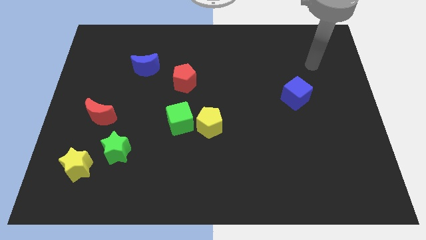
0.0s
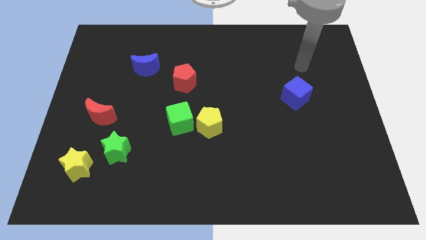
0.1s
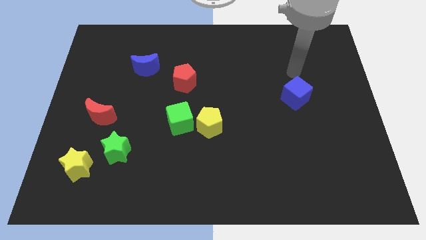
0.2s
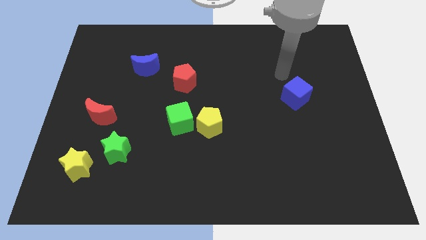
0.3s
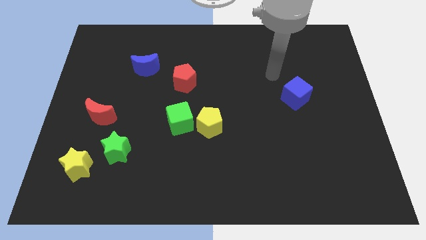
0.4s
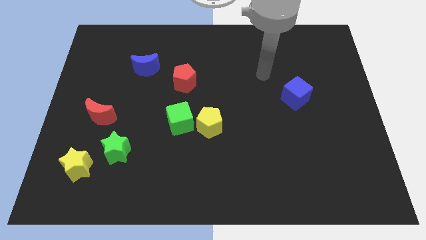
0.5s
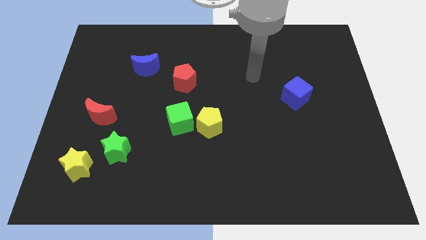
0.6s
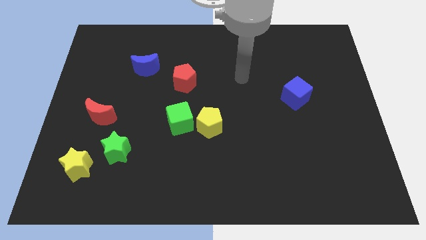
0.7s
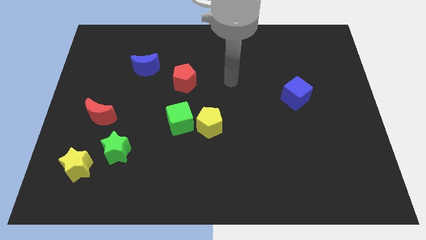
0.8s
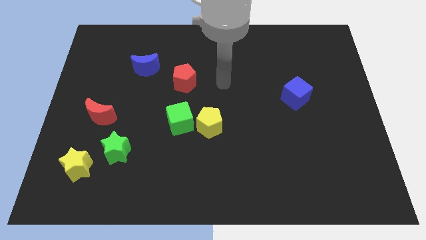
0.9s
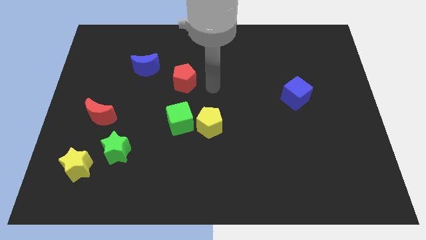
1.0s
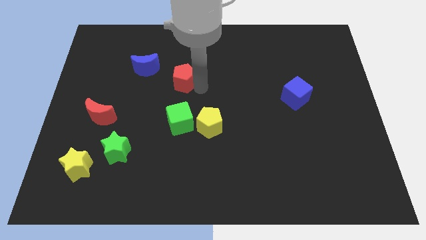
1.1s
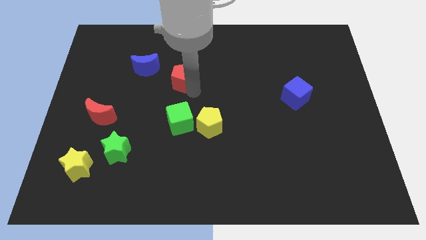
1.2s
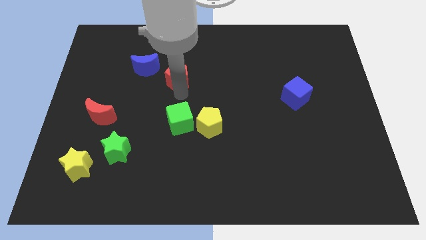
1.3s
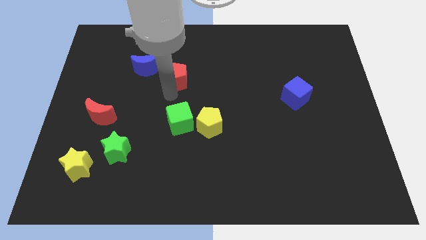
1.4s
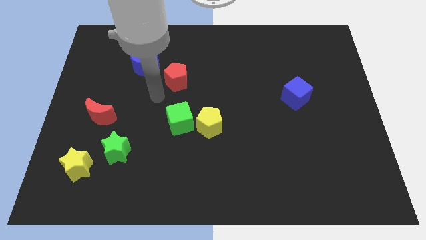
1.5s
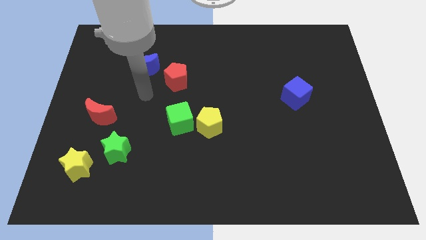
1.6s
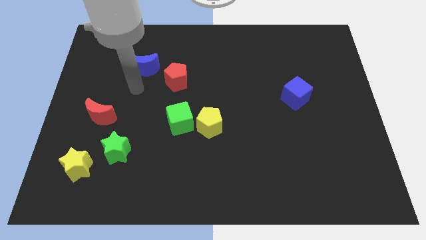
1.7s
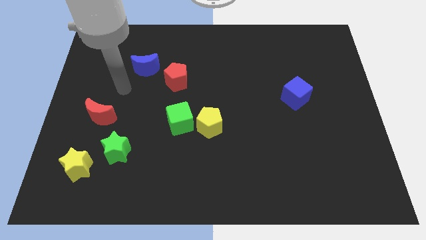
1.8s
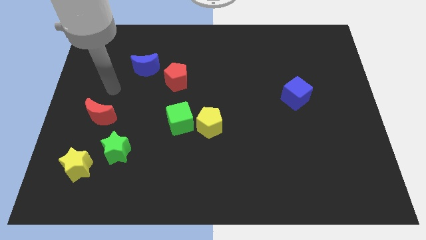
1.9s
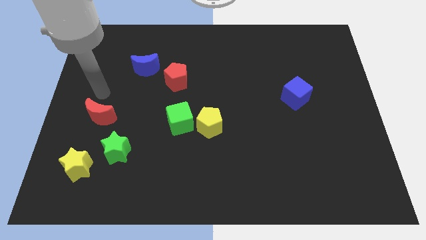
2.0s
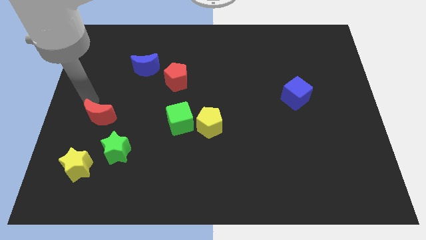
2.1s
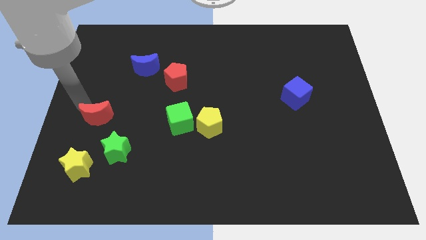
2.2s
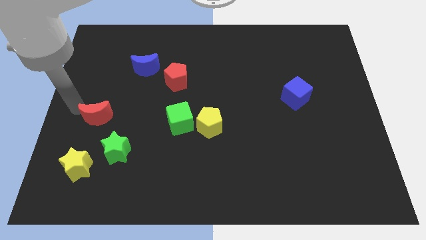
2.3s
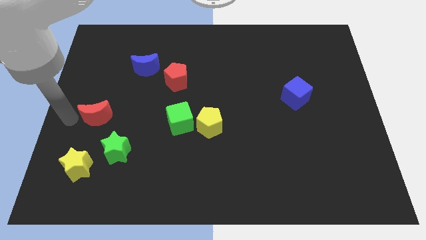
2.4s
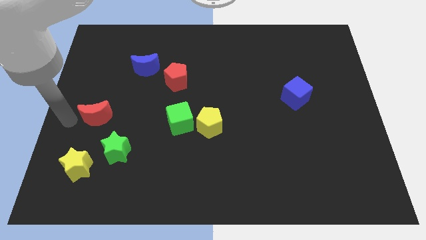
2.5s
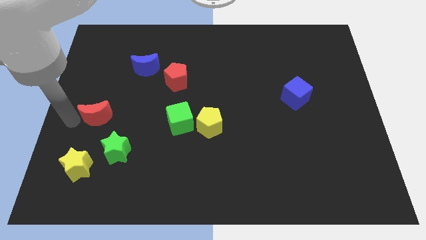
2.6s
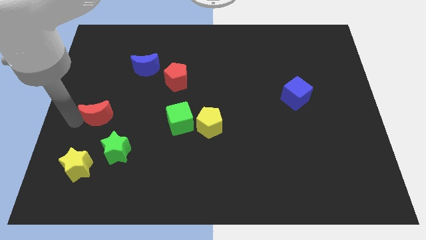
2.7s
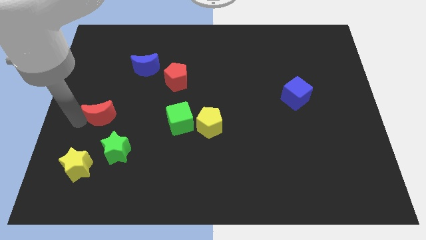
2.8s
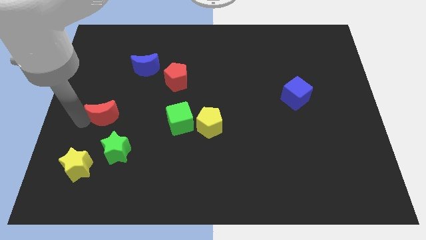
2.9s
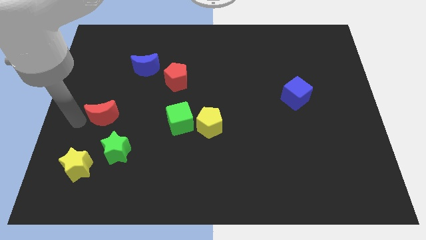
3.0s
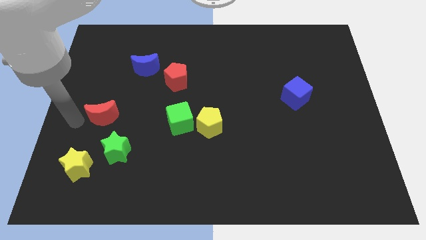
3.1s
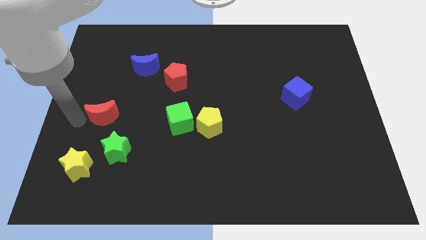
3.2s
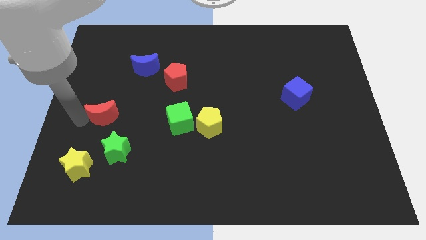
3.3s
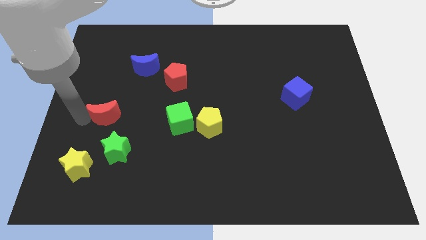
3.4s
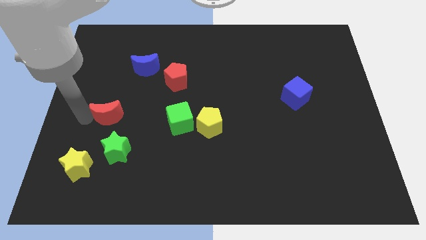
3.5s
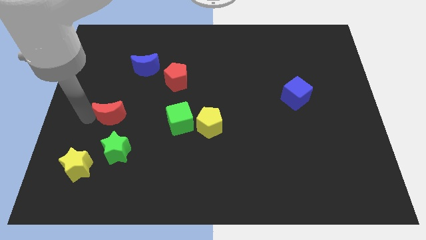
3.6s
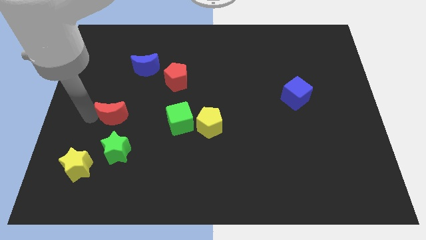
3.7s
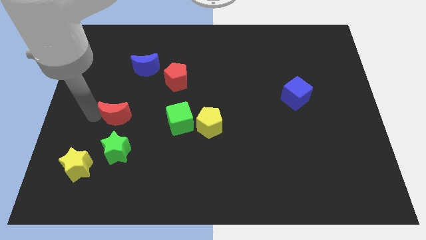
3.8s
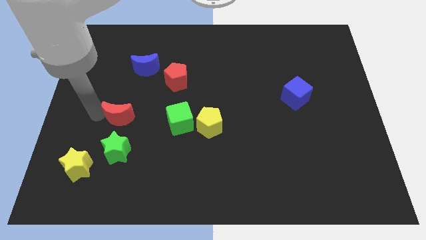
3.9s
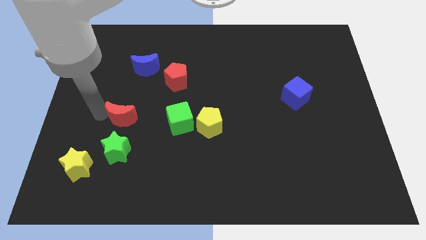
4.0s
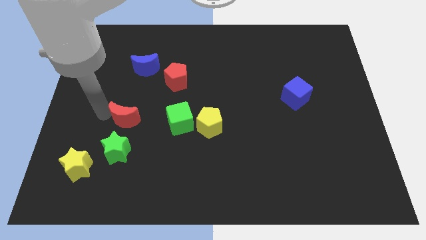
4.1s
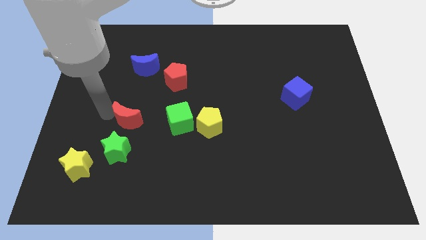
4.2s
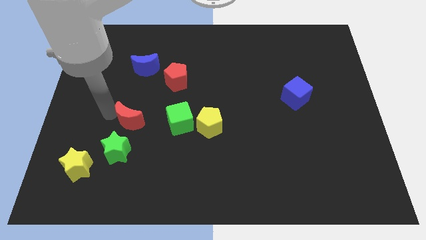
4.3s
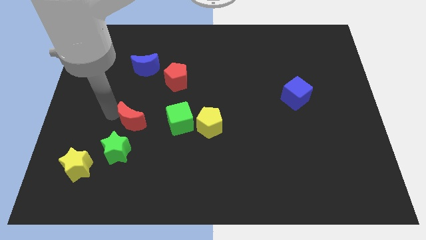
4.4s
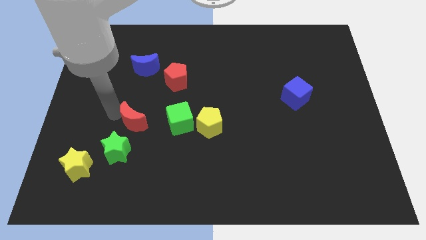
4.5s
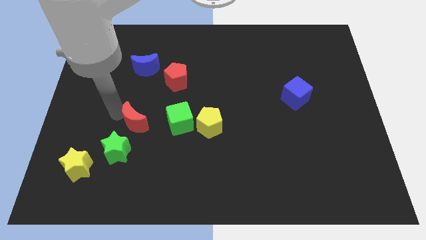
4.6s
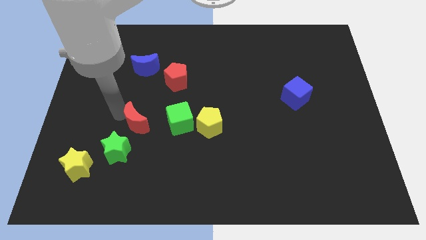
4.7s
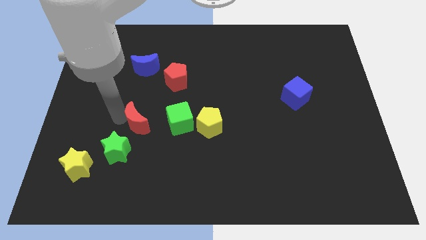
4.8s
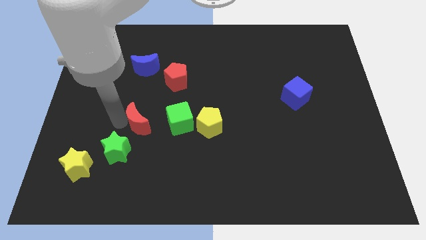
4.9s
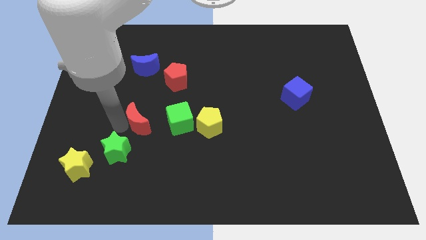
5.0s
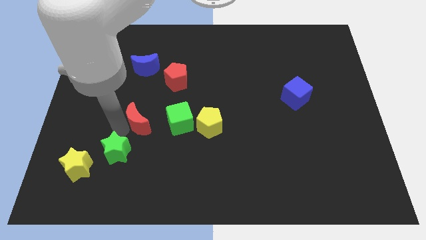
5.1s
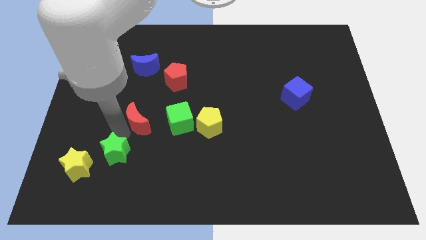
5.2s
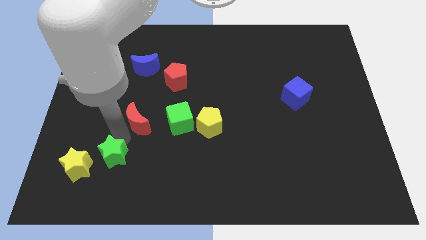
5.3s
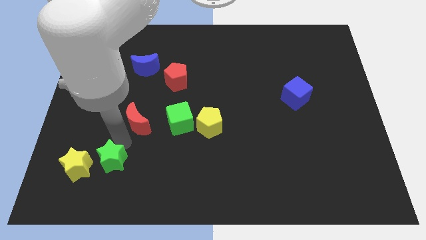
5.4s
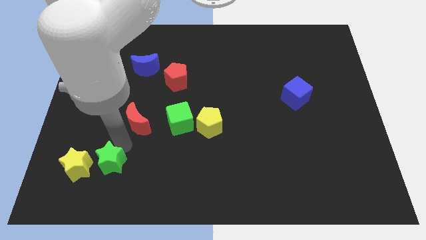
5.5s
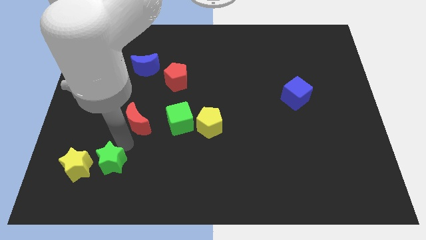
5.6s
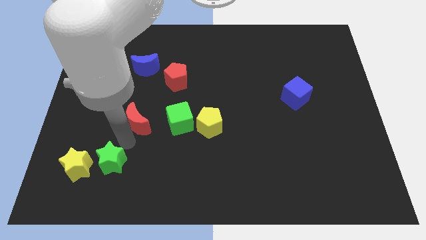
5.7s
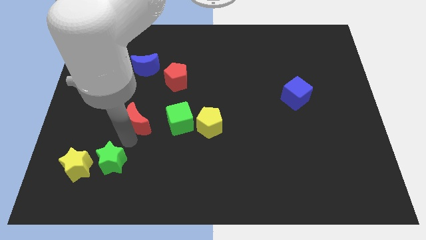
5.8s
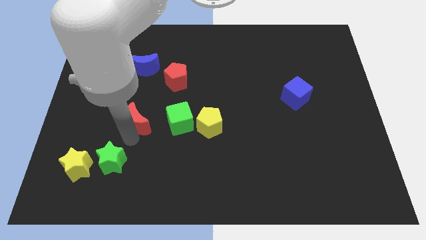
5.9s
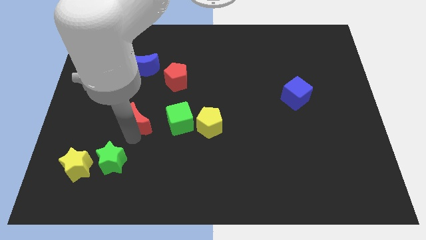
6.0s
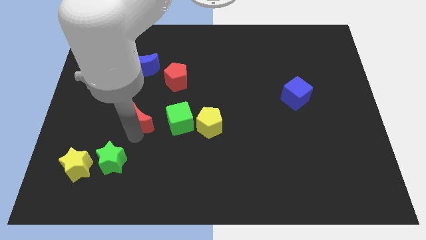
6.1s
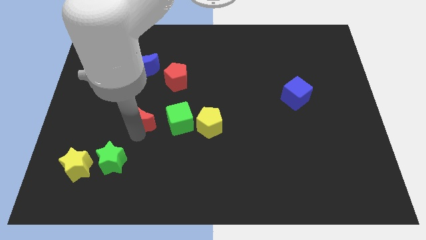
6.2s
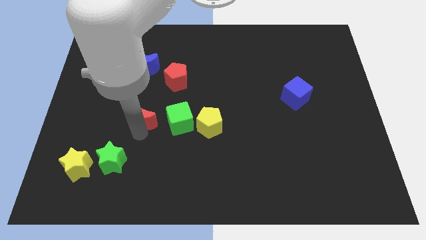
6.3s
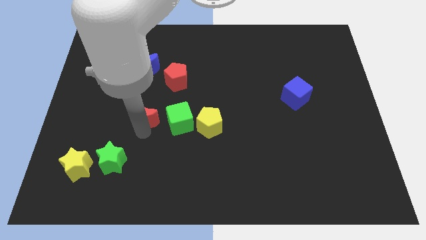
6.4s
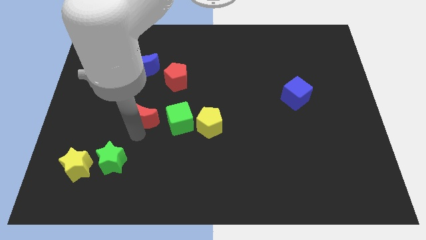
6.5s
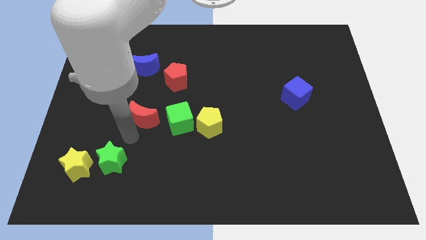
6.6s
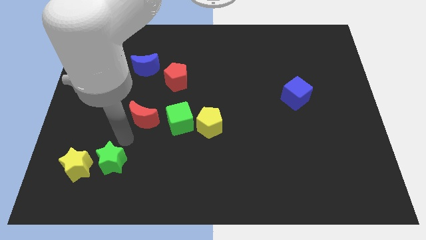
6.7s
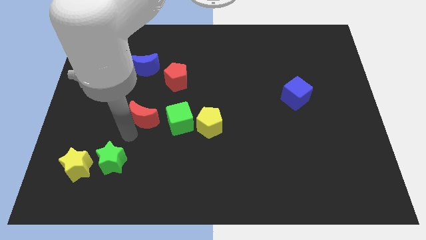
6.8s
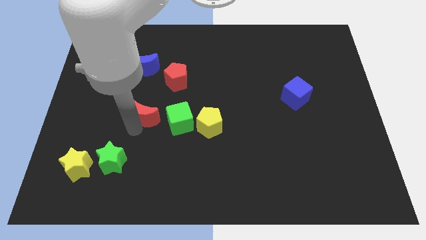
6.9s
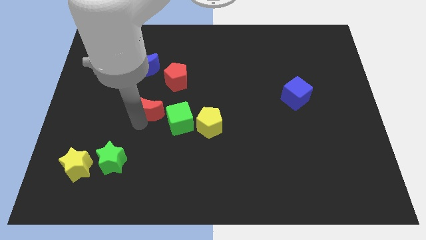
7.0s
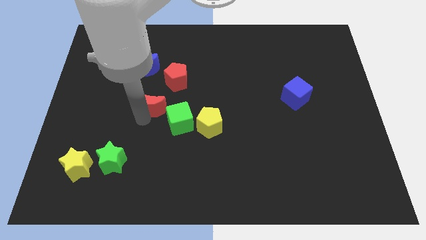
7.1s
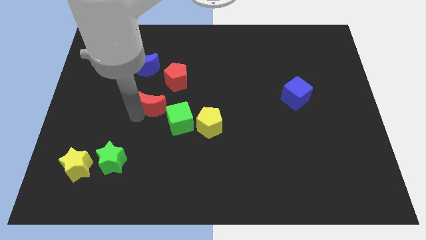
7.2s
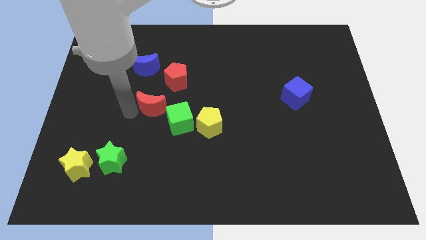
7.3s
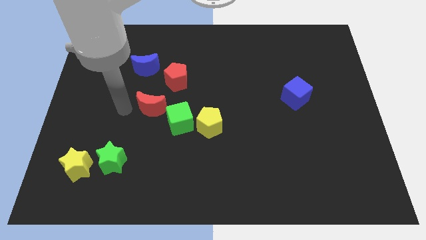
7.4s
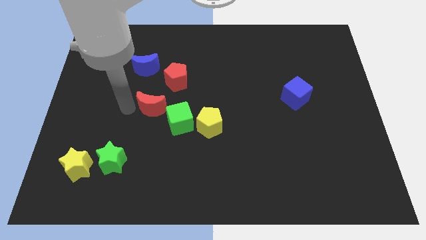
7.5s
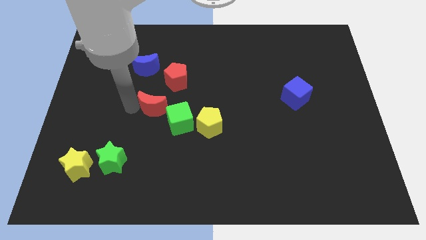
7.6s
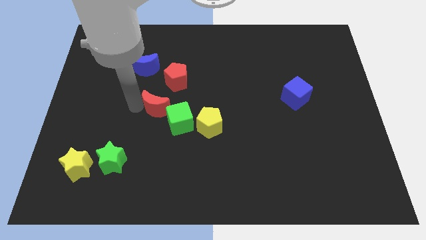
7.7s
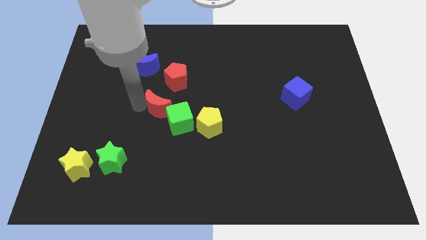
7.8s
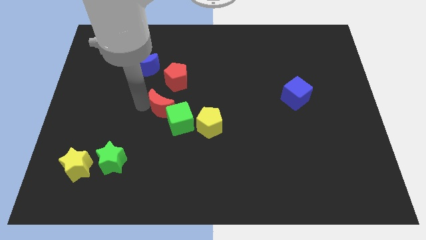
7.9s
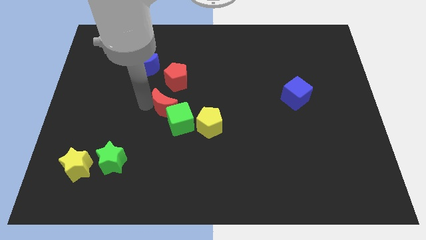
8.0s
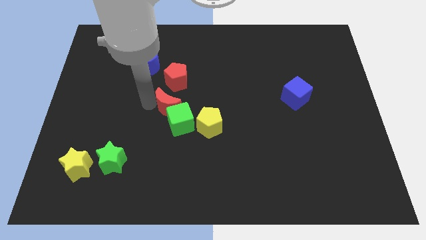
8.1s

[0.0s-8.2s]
slide the red moon diagonally up and to the left of the yellow pentagon
